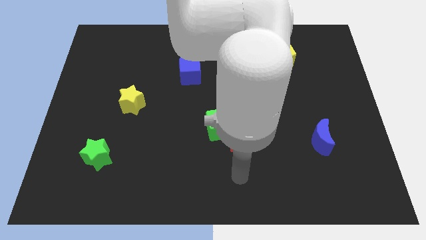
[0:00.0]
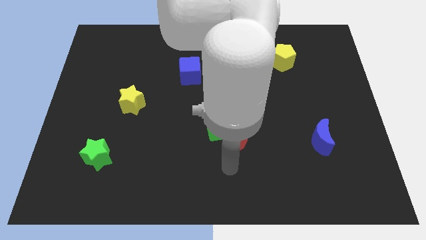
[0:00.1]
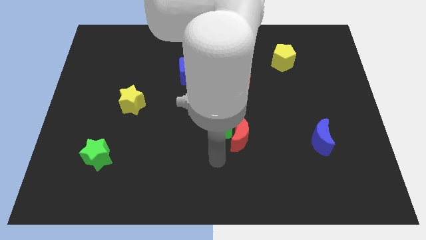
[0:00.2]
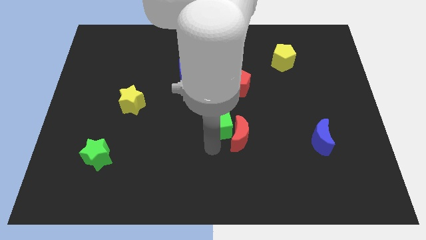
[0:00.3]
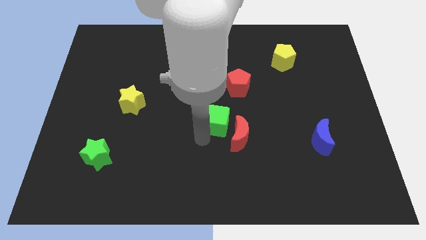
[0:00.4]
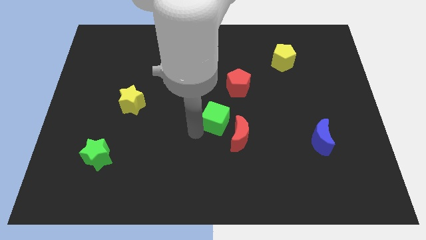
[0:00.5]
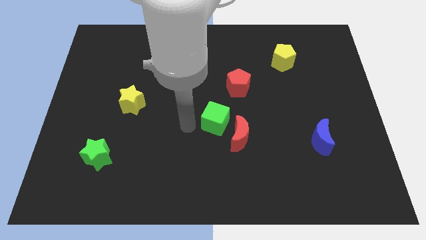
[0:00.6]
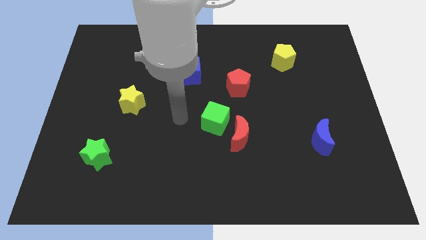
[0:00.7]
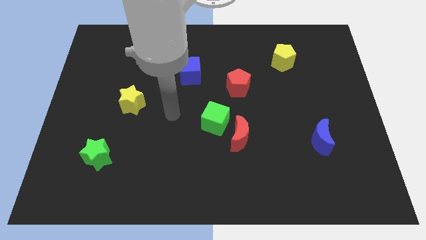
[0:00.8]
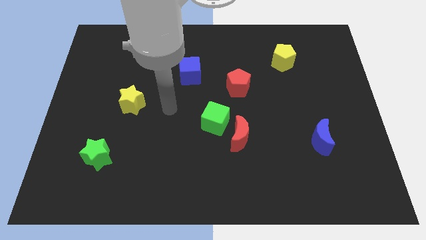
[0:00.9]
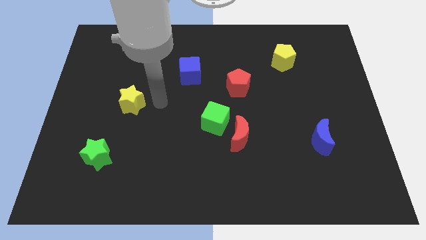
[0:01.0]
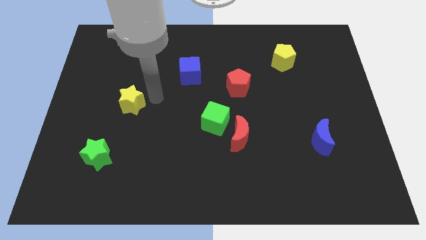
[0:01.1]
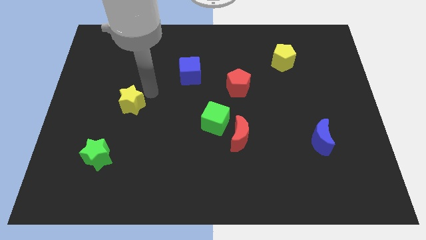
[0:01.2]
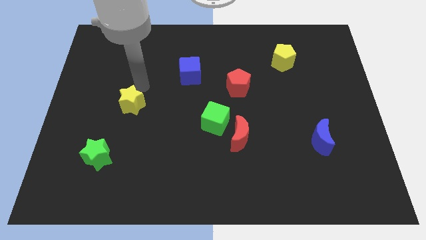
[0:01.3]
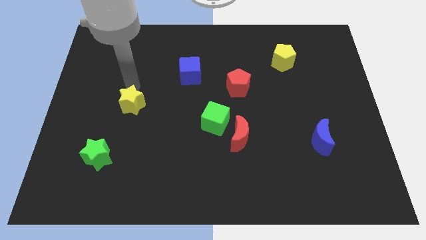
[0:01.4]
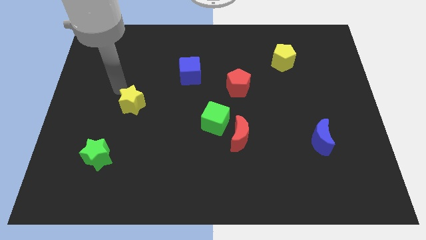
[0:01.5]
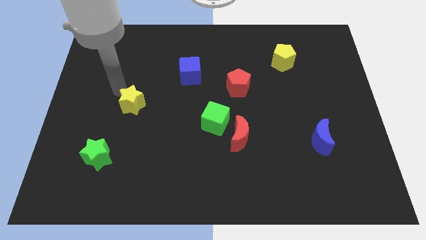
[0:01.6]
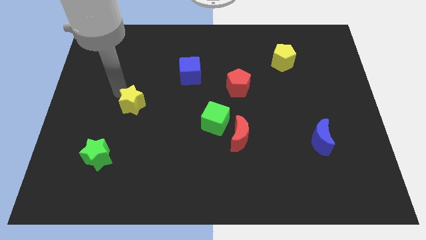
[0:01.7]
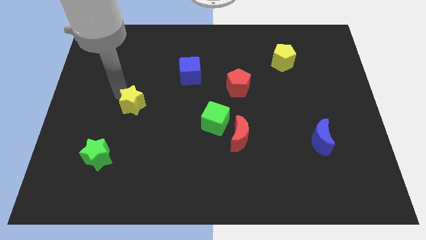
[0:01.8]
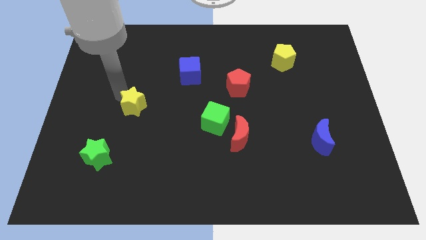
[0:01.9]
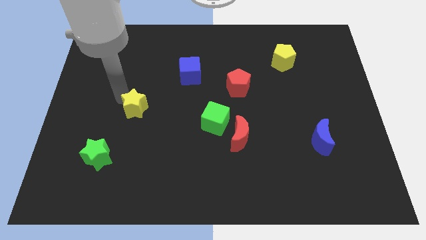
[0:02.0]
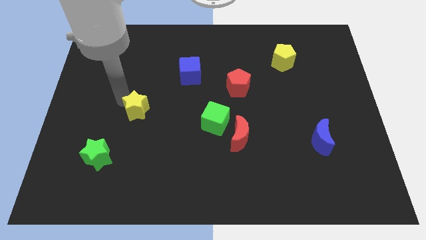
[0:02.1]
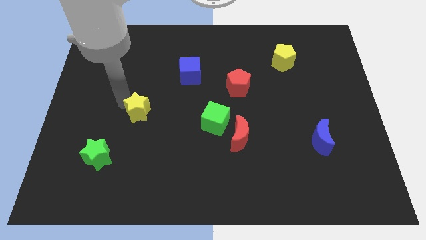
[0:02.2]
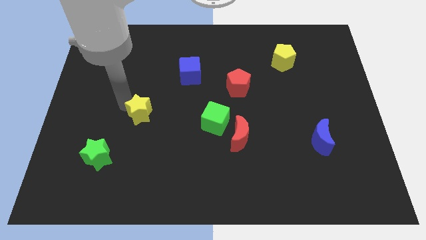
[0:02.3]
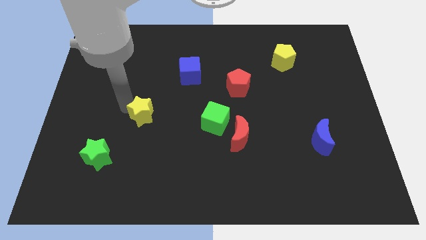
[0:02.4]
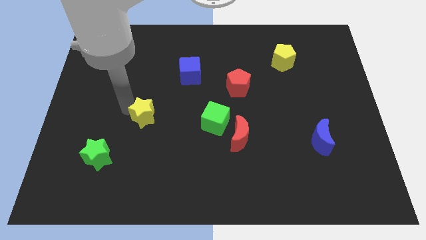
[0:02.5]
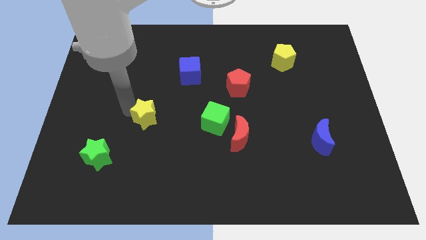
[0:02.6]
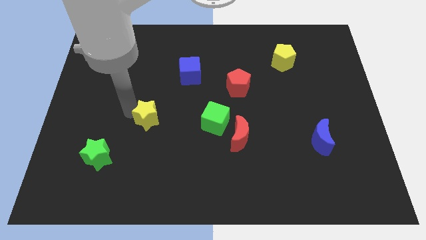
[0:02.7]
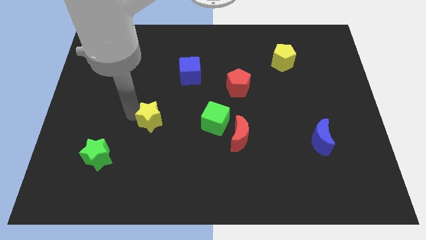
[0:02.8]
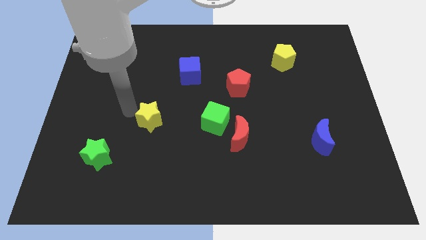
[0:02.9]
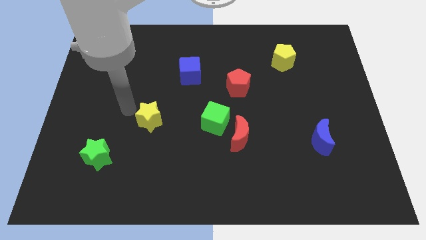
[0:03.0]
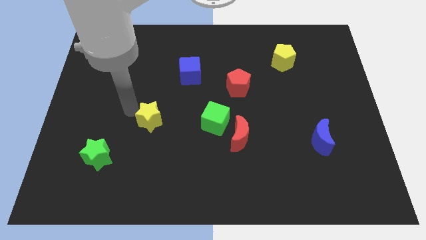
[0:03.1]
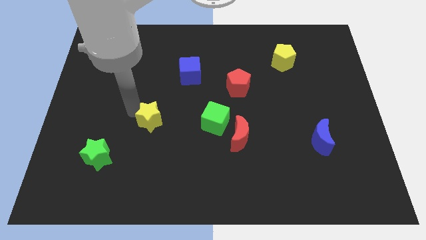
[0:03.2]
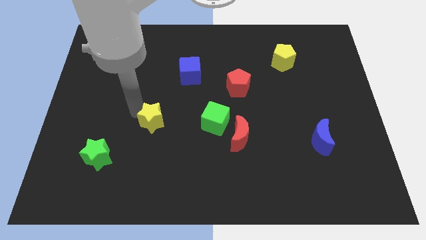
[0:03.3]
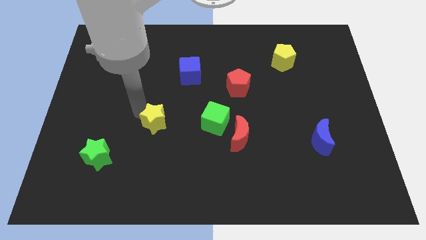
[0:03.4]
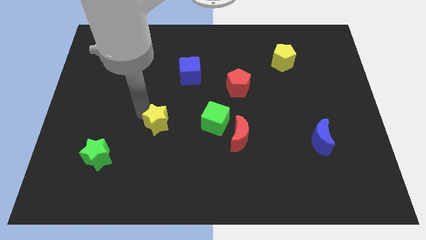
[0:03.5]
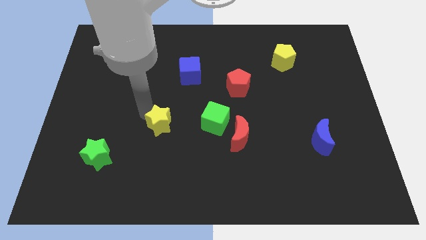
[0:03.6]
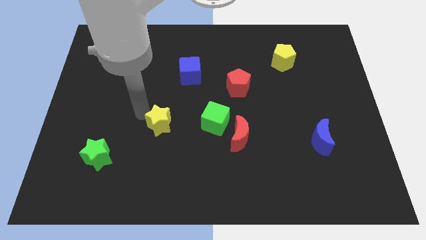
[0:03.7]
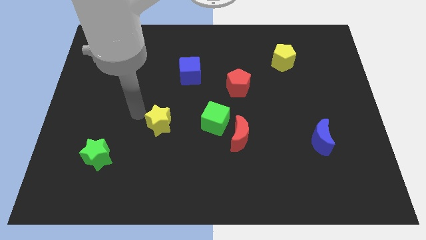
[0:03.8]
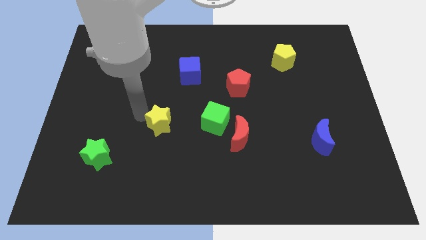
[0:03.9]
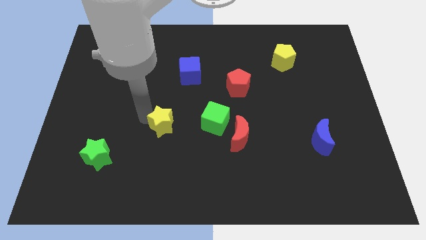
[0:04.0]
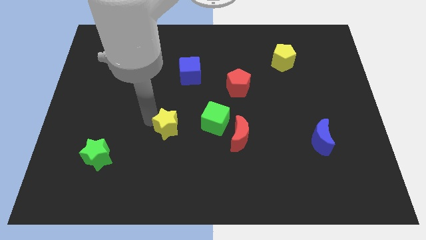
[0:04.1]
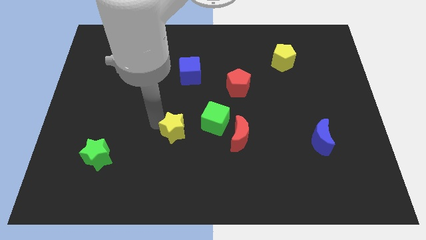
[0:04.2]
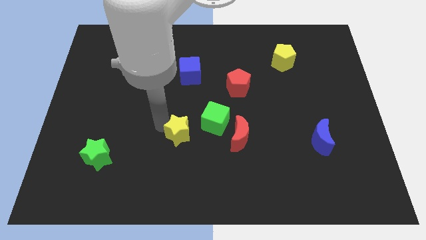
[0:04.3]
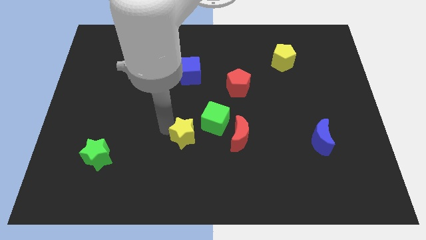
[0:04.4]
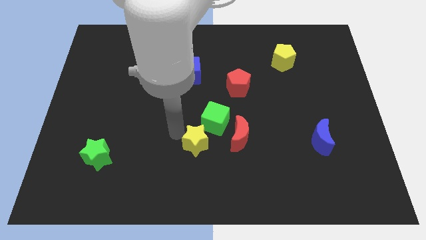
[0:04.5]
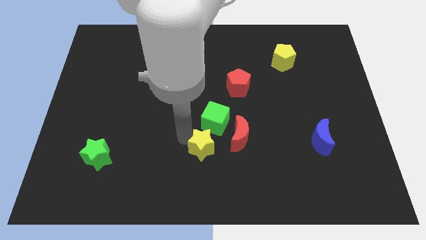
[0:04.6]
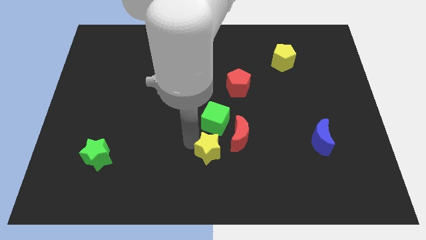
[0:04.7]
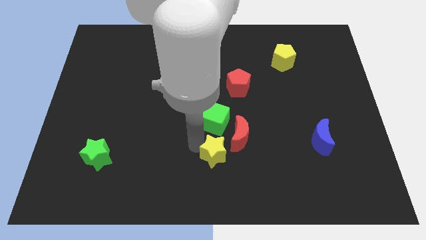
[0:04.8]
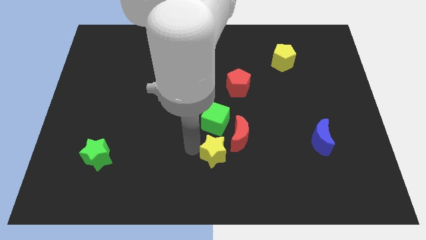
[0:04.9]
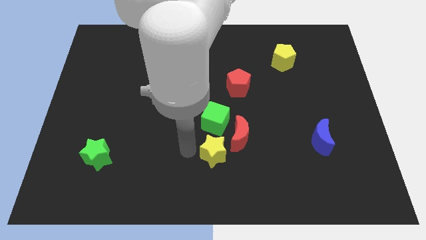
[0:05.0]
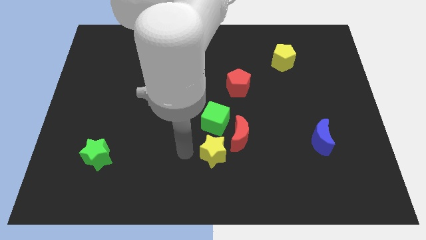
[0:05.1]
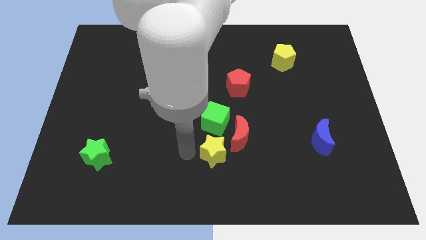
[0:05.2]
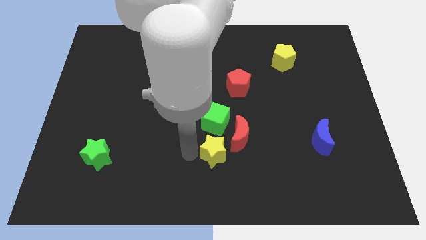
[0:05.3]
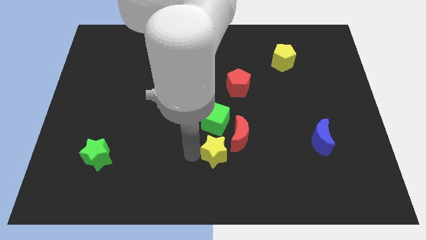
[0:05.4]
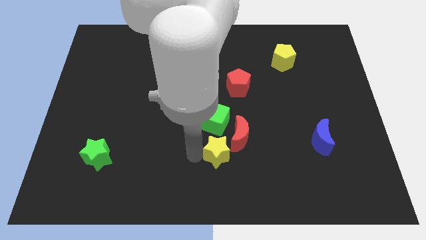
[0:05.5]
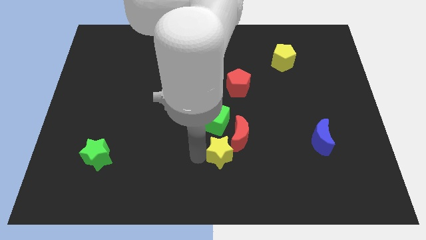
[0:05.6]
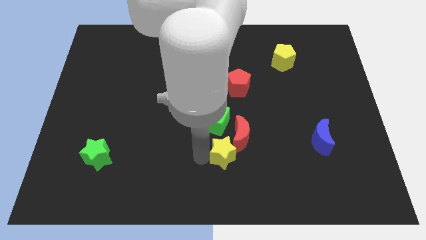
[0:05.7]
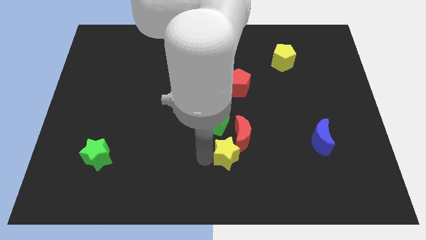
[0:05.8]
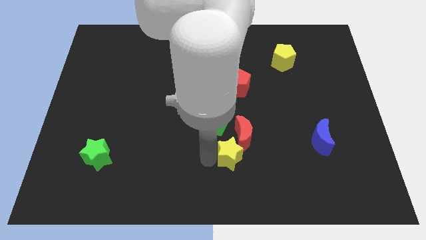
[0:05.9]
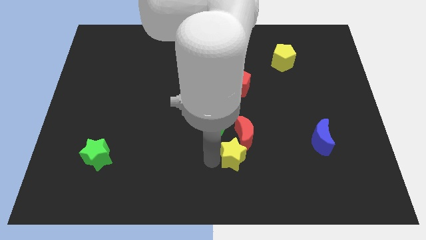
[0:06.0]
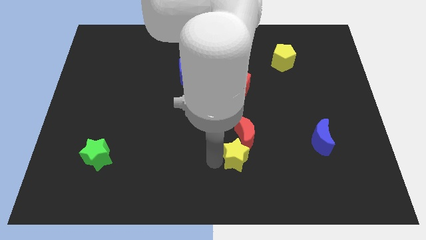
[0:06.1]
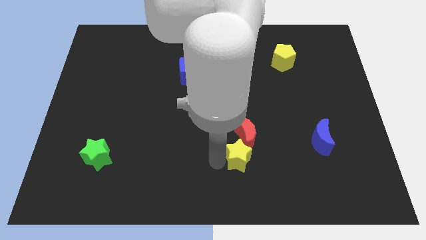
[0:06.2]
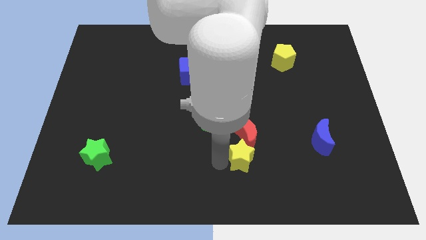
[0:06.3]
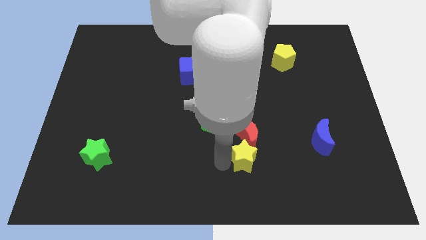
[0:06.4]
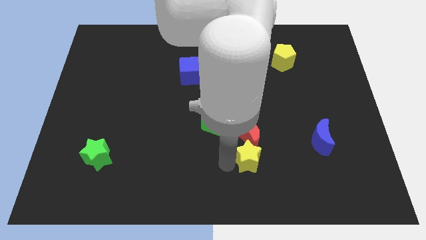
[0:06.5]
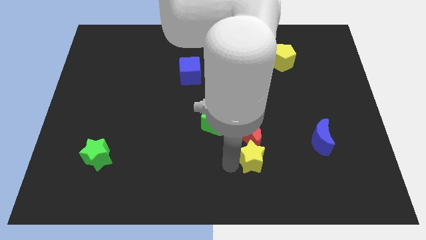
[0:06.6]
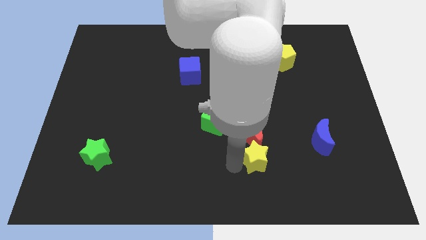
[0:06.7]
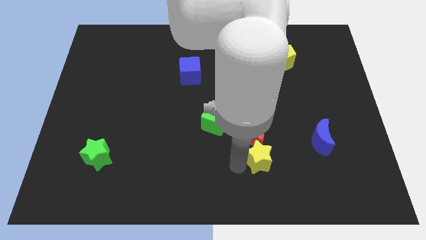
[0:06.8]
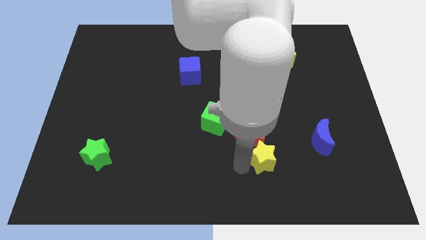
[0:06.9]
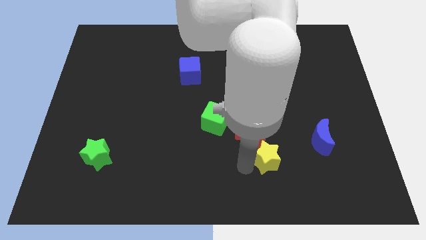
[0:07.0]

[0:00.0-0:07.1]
push the yellow star to the left of the blue moon

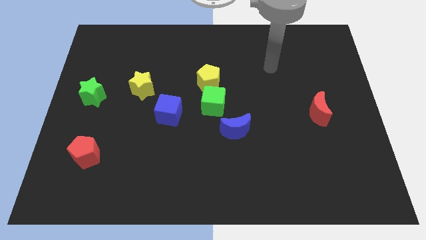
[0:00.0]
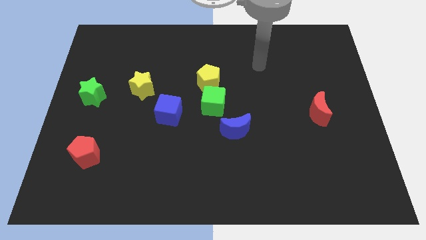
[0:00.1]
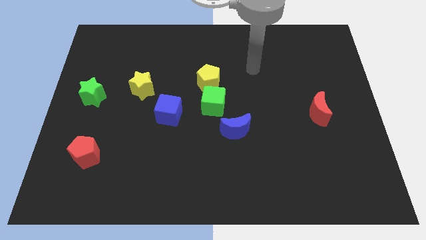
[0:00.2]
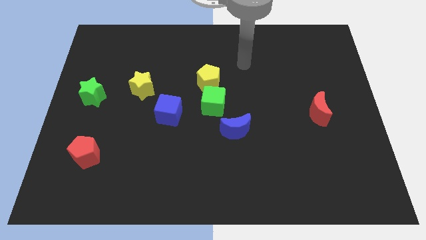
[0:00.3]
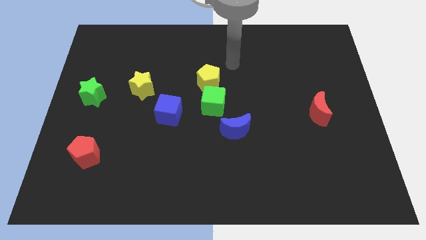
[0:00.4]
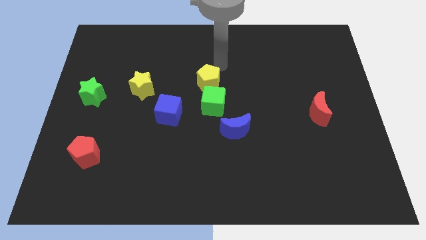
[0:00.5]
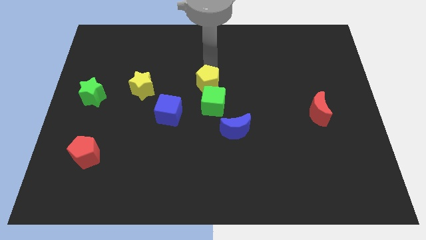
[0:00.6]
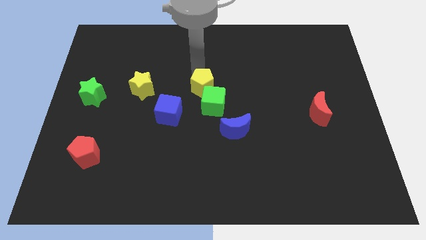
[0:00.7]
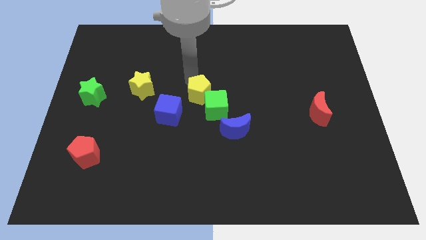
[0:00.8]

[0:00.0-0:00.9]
put the green cube to the right side of the yellow pentagon

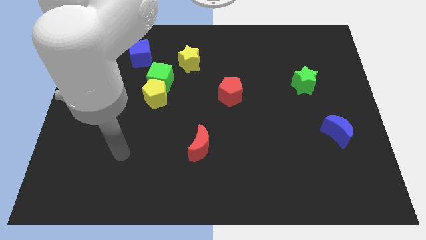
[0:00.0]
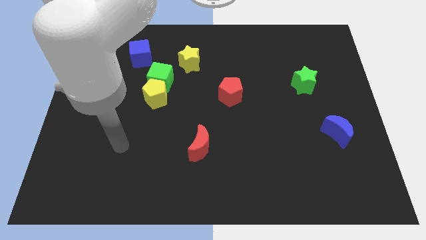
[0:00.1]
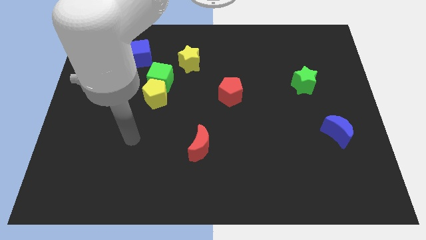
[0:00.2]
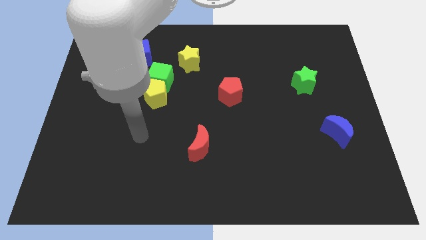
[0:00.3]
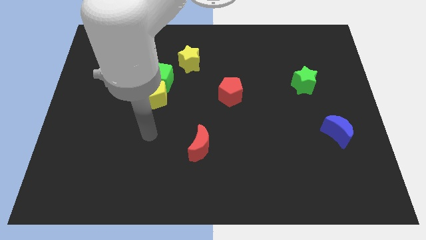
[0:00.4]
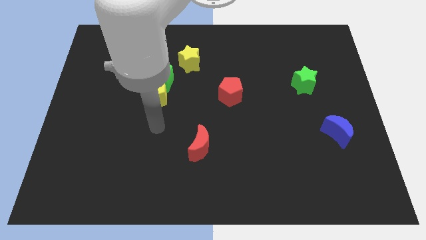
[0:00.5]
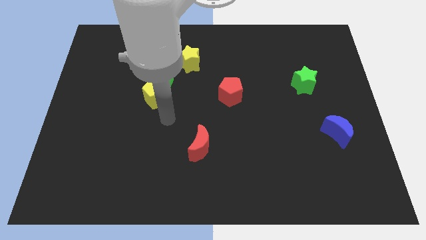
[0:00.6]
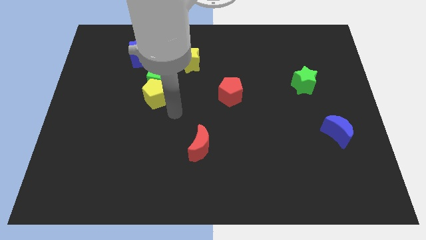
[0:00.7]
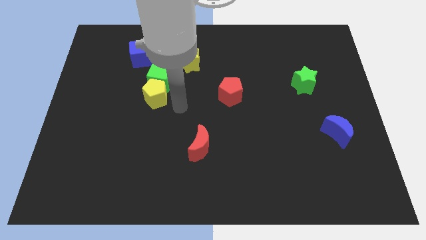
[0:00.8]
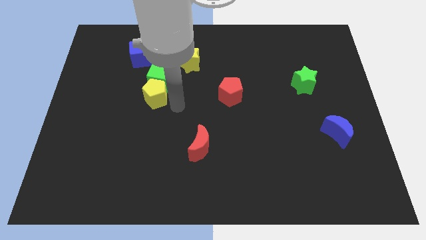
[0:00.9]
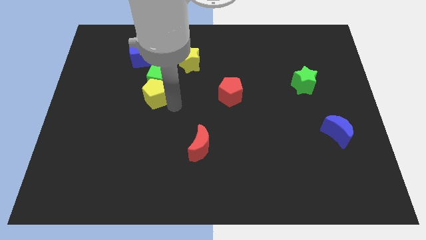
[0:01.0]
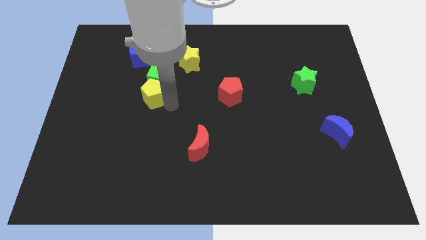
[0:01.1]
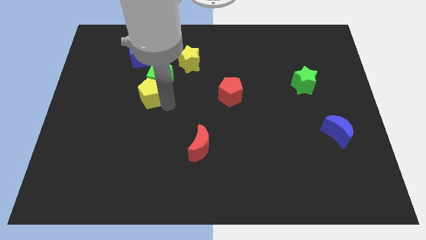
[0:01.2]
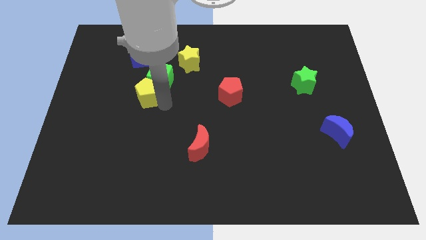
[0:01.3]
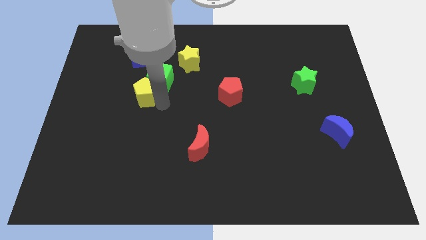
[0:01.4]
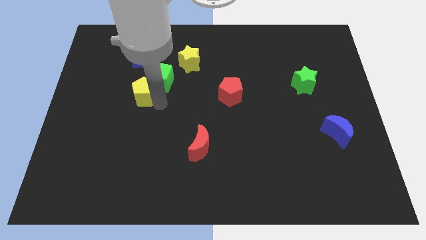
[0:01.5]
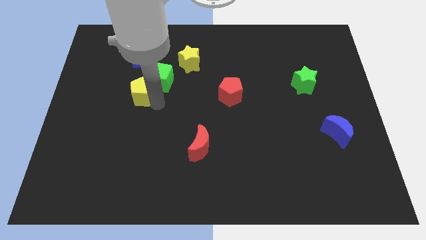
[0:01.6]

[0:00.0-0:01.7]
slide the yellow pentagon to the left of the green cube
